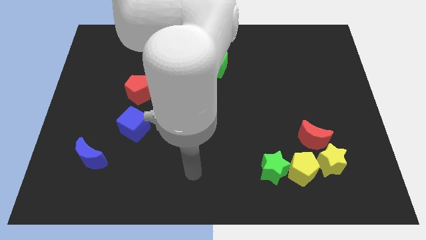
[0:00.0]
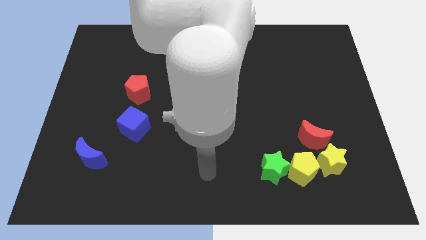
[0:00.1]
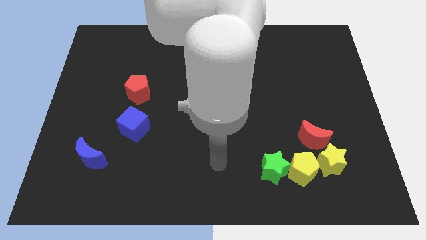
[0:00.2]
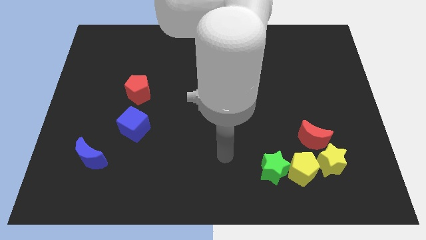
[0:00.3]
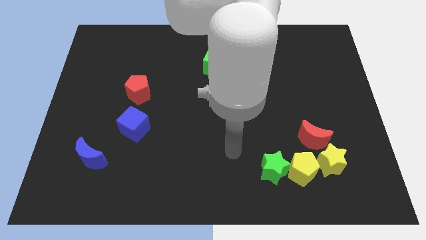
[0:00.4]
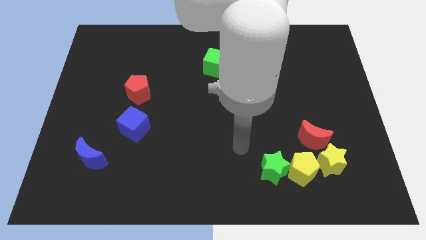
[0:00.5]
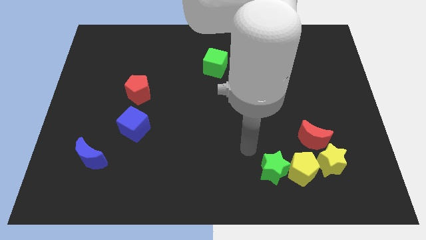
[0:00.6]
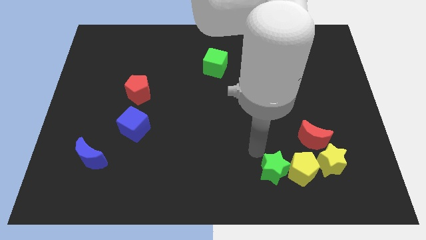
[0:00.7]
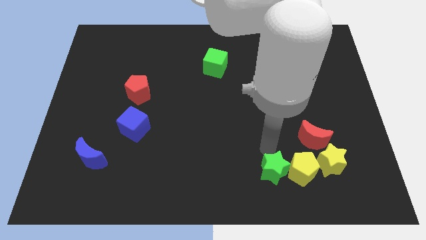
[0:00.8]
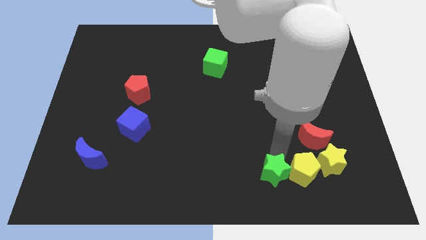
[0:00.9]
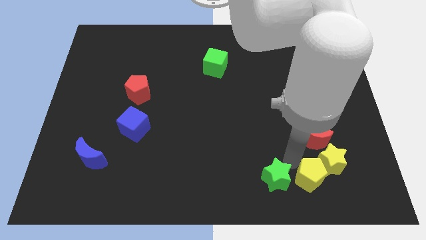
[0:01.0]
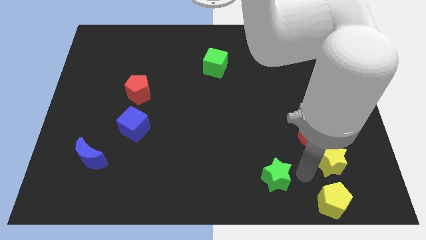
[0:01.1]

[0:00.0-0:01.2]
pull the green star apart from the yellow pentagon

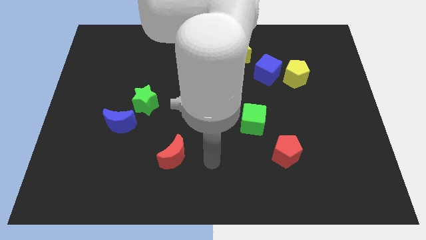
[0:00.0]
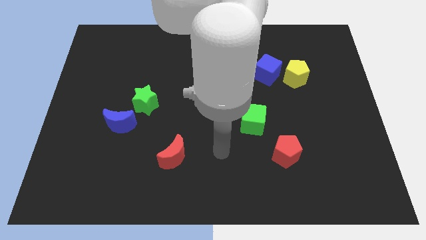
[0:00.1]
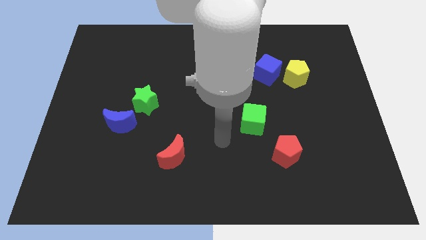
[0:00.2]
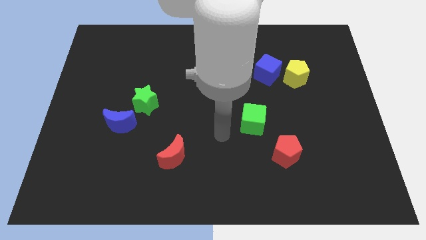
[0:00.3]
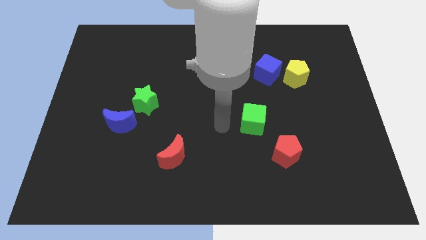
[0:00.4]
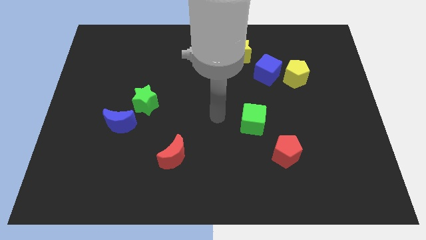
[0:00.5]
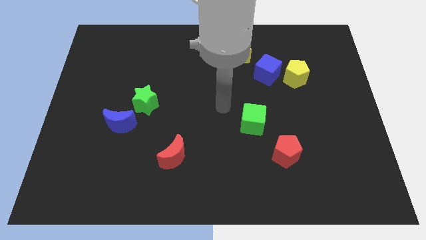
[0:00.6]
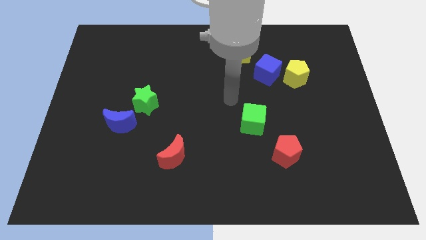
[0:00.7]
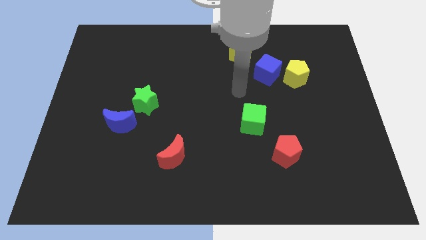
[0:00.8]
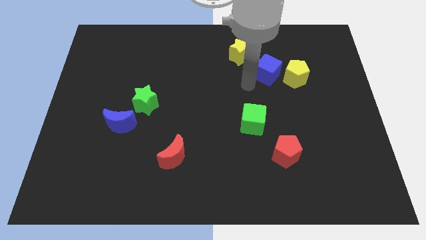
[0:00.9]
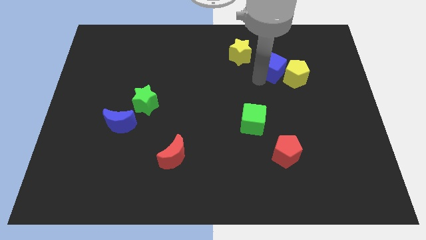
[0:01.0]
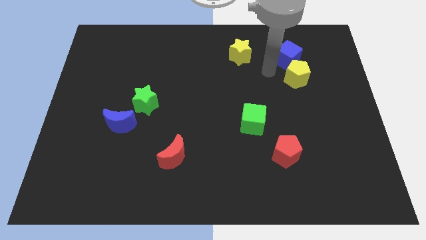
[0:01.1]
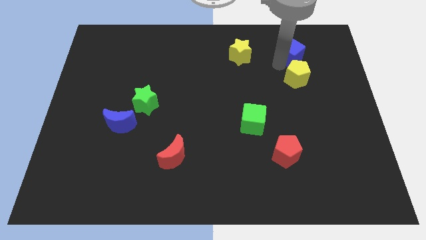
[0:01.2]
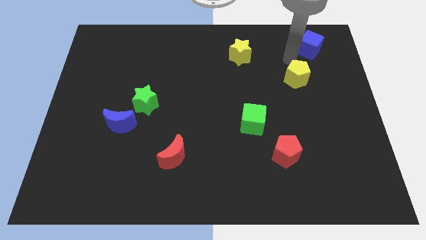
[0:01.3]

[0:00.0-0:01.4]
pull the yellow pentagon apart from the blue cube

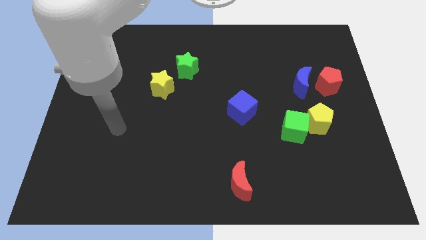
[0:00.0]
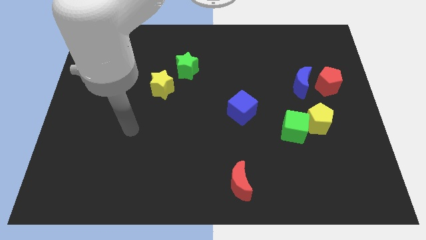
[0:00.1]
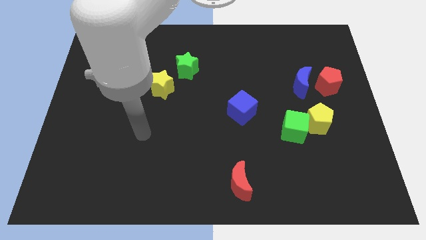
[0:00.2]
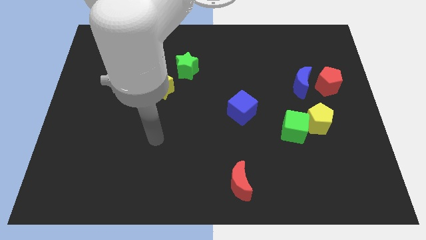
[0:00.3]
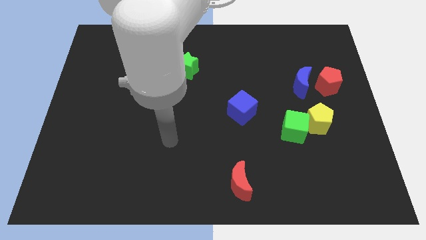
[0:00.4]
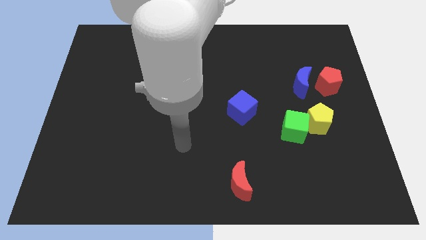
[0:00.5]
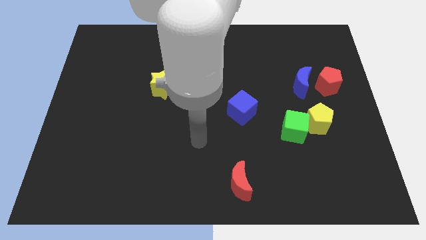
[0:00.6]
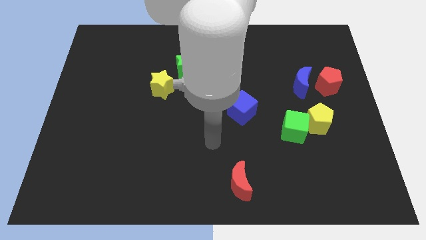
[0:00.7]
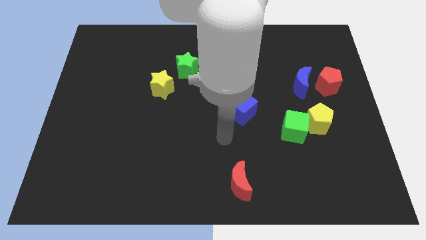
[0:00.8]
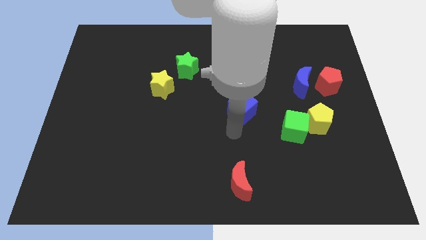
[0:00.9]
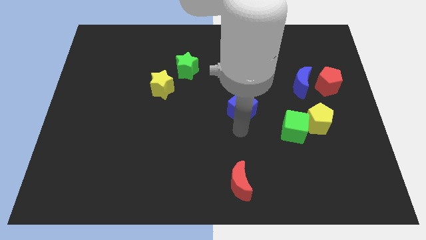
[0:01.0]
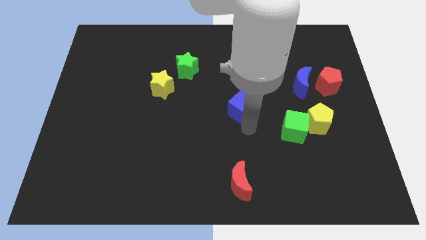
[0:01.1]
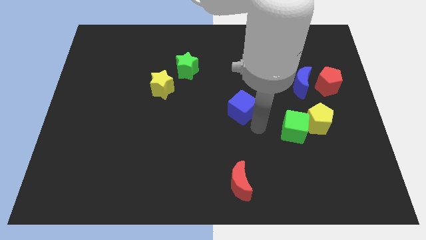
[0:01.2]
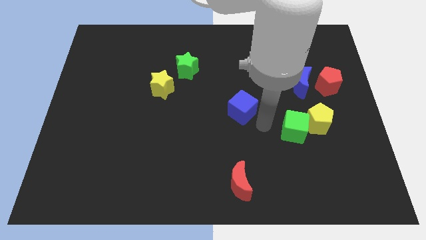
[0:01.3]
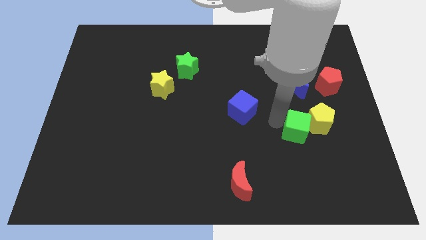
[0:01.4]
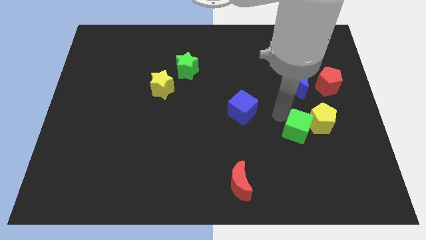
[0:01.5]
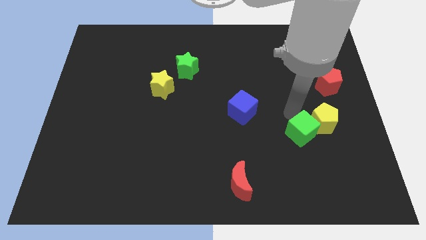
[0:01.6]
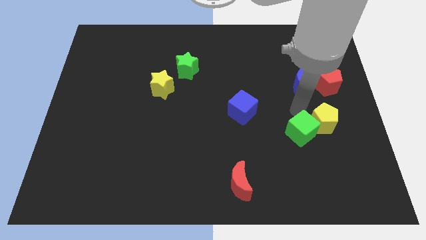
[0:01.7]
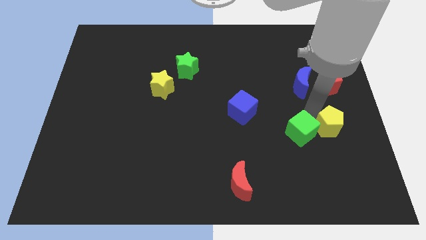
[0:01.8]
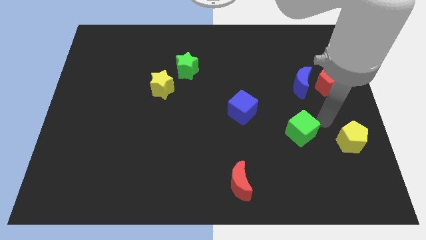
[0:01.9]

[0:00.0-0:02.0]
separate the green cube from the yellow pentagon

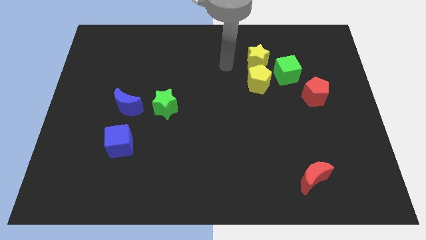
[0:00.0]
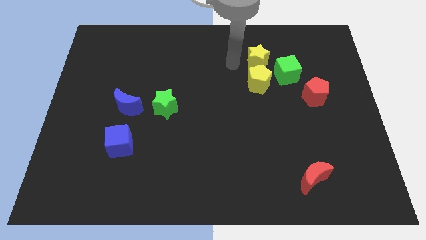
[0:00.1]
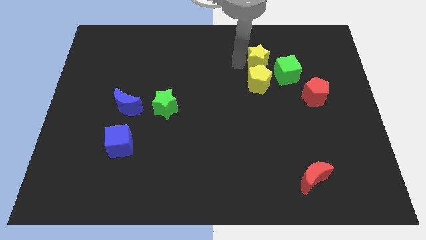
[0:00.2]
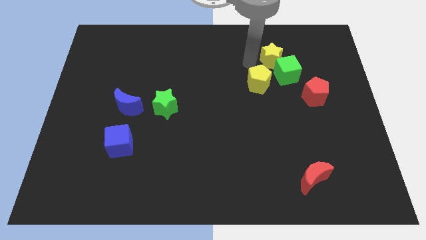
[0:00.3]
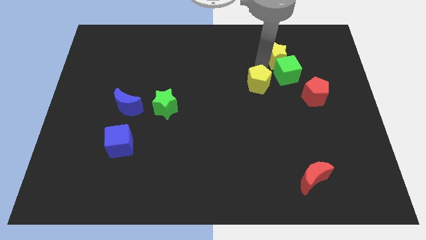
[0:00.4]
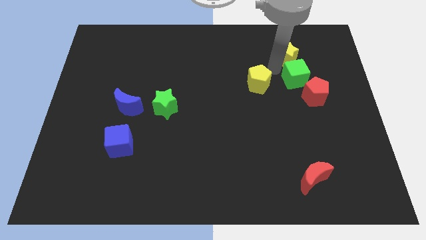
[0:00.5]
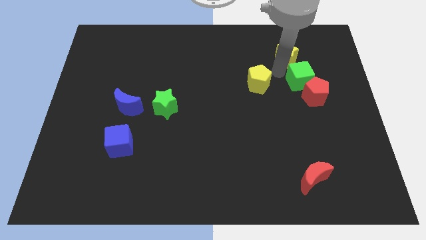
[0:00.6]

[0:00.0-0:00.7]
separate the yellow pentagon from the yellow star and green cube

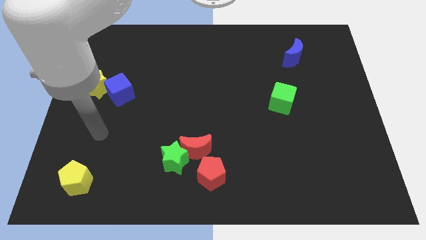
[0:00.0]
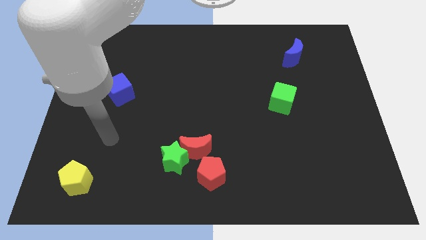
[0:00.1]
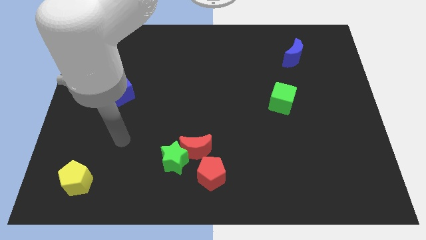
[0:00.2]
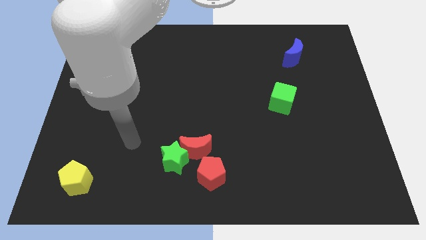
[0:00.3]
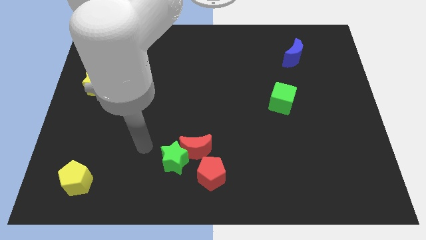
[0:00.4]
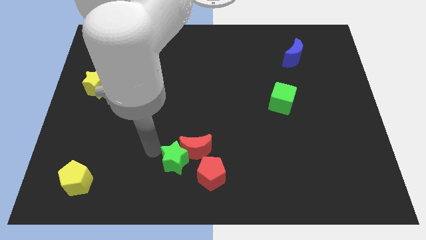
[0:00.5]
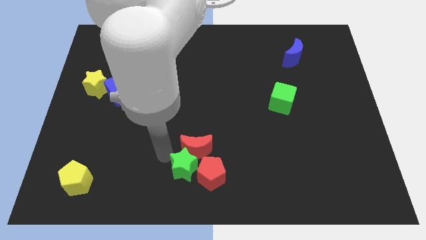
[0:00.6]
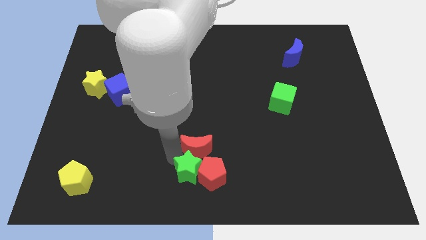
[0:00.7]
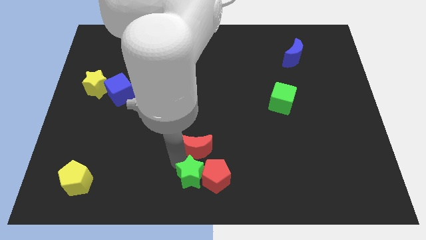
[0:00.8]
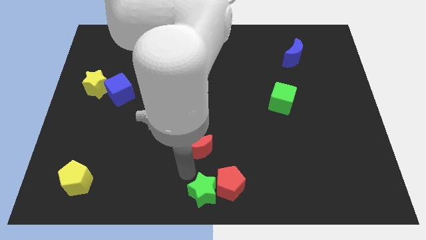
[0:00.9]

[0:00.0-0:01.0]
pull the red moon apart from the green star and red pentagon

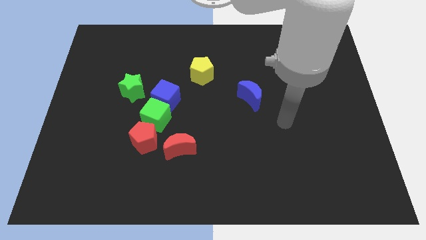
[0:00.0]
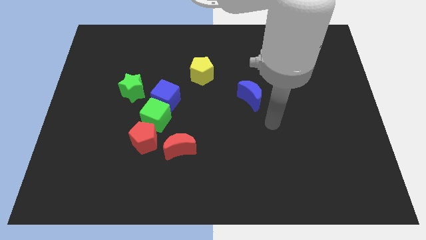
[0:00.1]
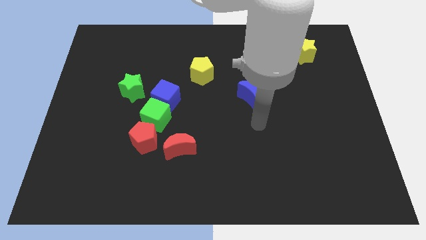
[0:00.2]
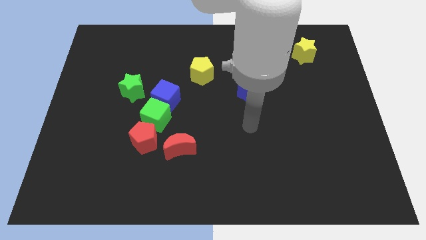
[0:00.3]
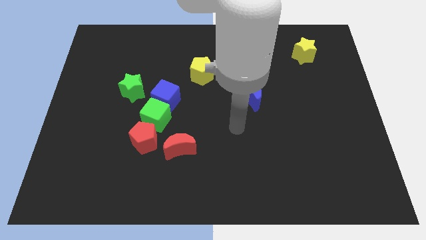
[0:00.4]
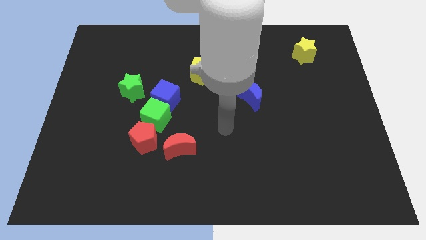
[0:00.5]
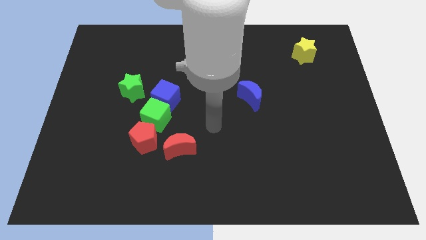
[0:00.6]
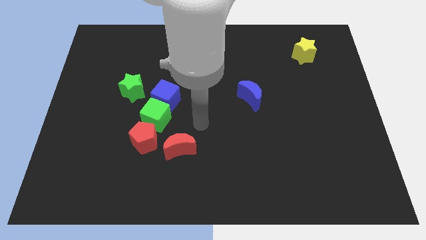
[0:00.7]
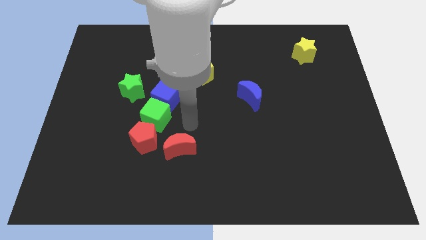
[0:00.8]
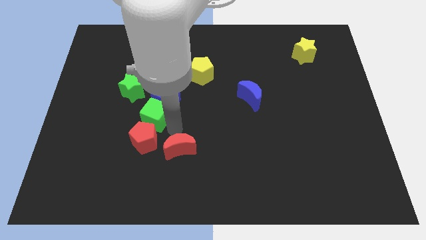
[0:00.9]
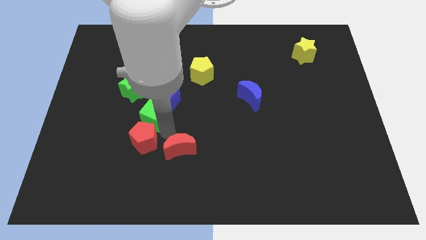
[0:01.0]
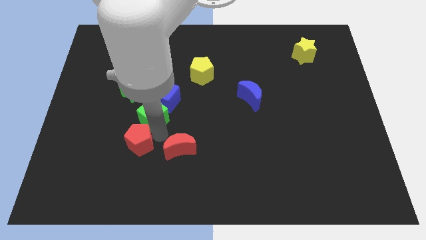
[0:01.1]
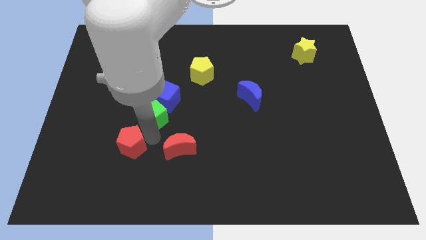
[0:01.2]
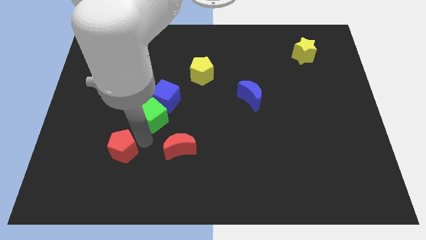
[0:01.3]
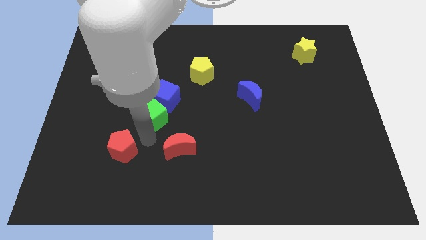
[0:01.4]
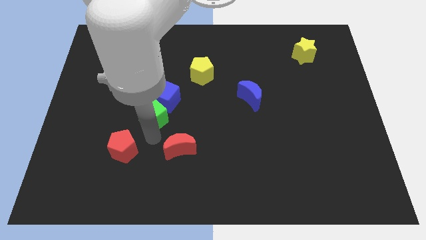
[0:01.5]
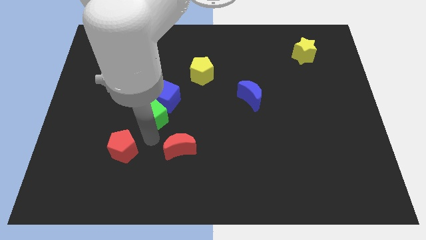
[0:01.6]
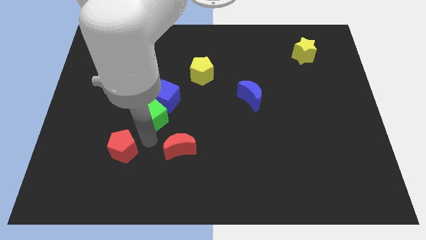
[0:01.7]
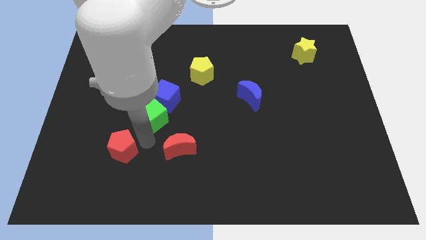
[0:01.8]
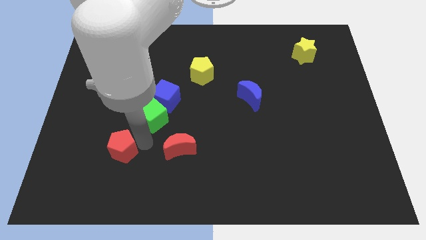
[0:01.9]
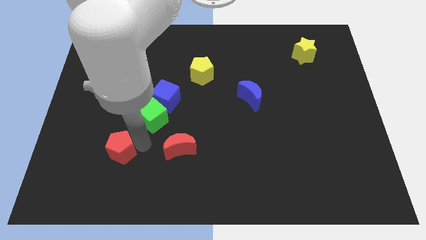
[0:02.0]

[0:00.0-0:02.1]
pull the red pentagon apart from the green cube and red moon

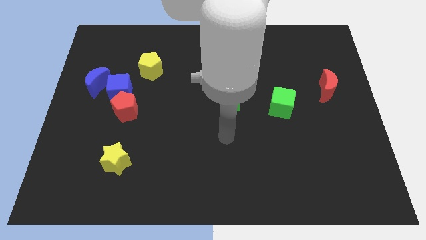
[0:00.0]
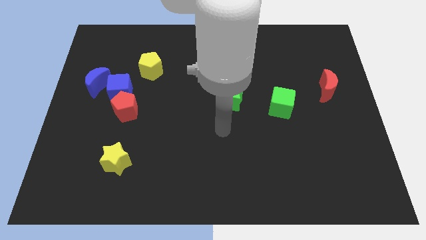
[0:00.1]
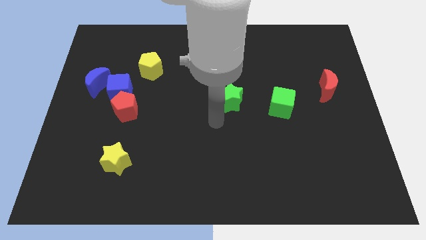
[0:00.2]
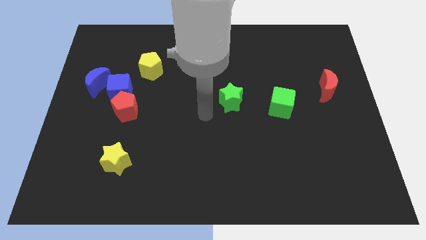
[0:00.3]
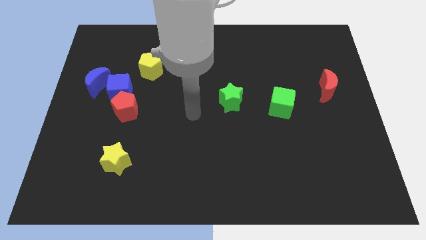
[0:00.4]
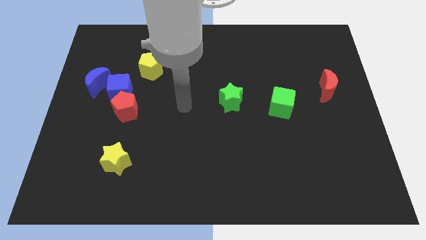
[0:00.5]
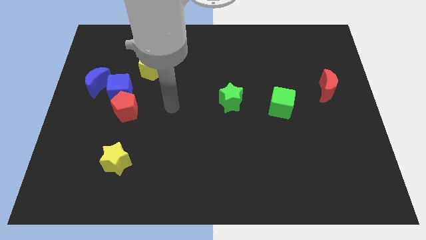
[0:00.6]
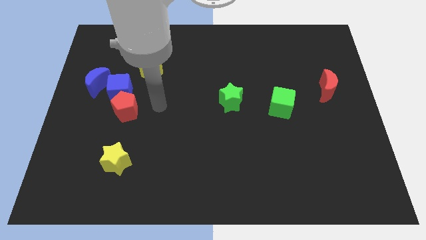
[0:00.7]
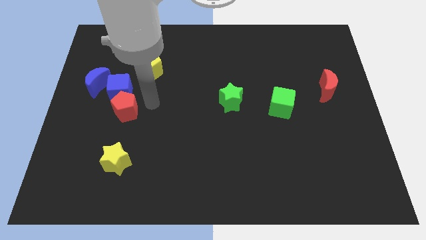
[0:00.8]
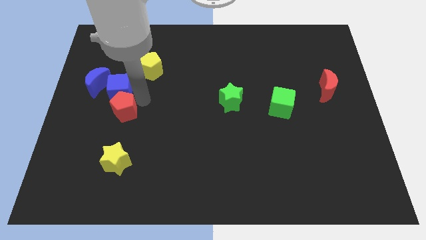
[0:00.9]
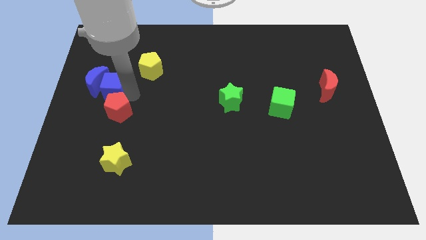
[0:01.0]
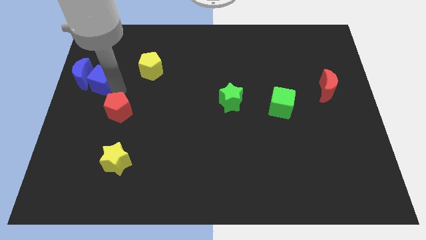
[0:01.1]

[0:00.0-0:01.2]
move the red pentagon away from the blue cube
